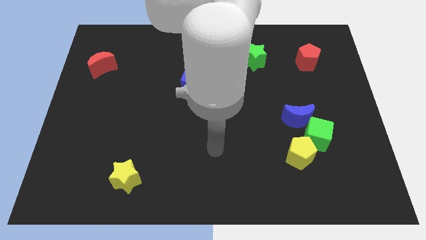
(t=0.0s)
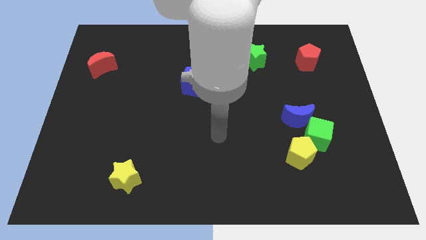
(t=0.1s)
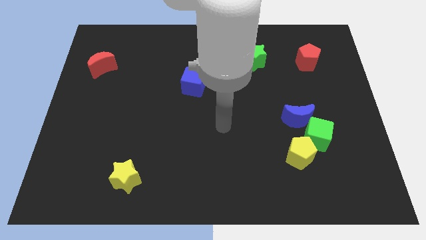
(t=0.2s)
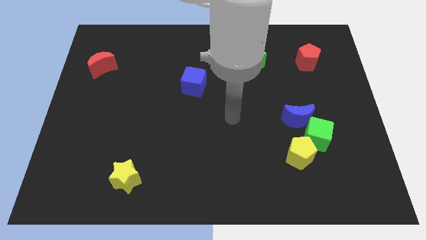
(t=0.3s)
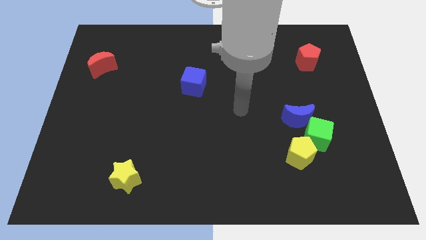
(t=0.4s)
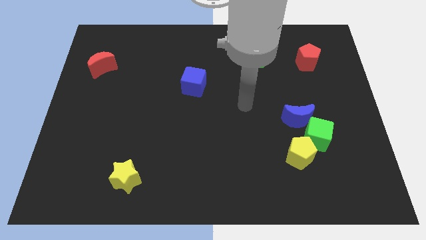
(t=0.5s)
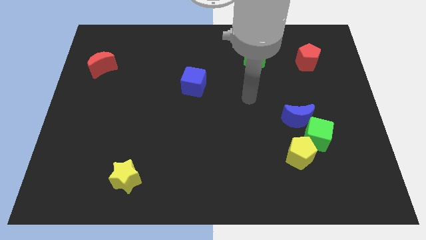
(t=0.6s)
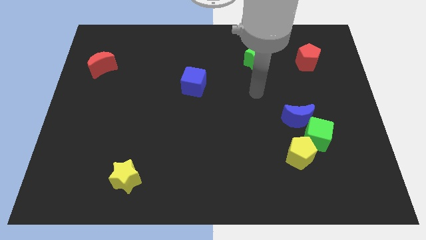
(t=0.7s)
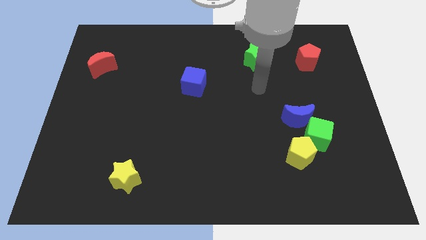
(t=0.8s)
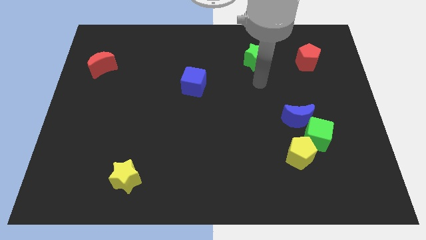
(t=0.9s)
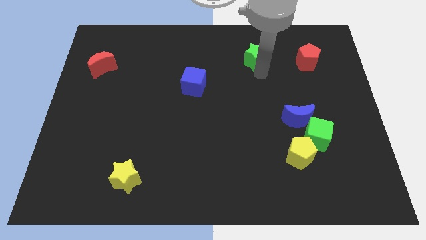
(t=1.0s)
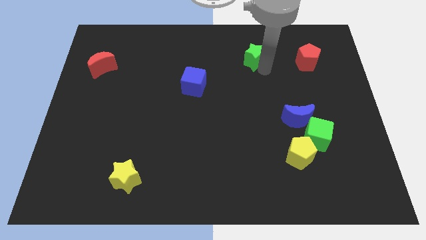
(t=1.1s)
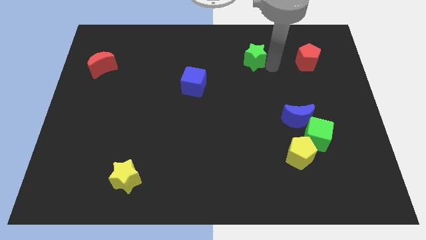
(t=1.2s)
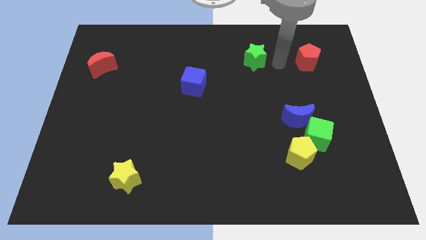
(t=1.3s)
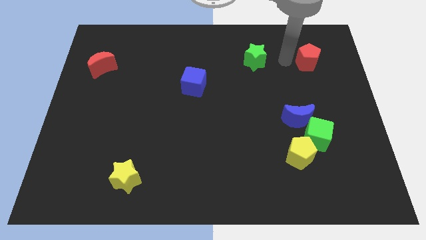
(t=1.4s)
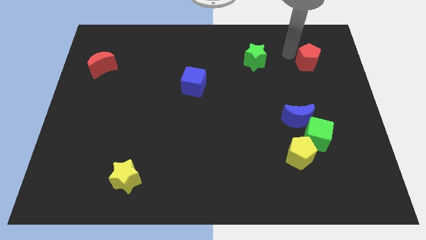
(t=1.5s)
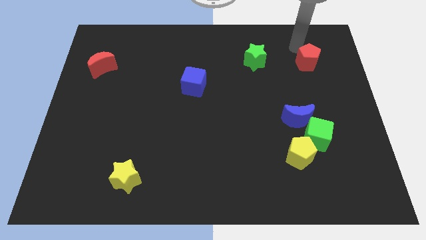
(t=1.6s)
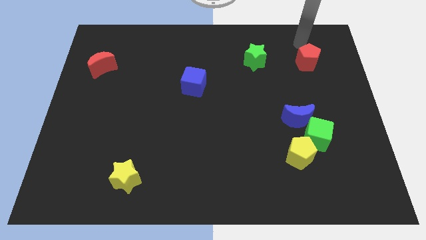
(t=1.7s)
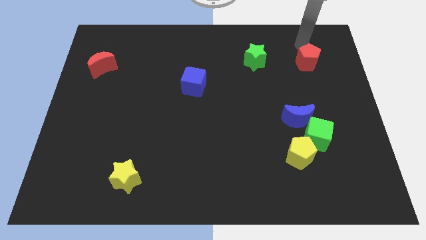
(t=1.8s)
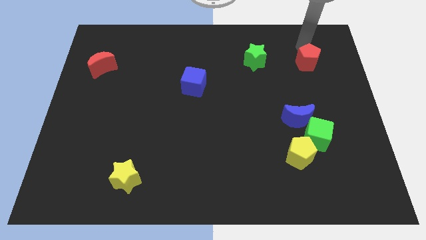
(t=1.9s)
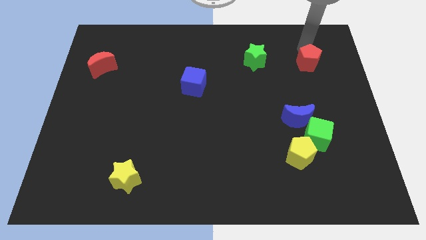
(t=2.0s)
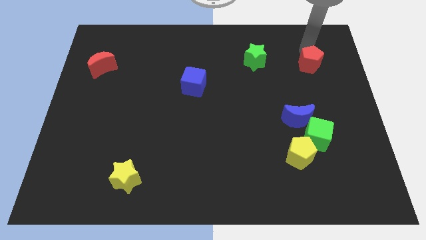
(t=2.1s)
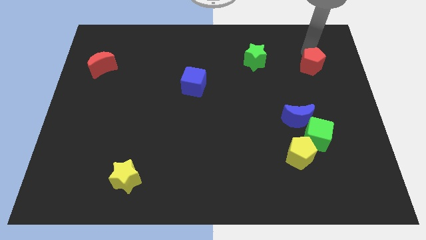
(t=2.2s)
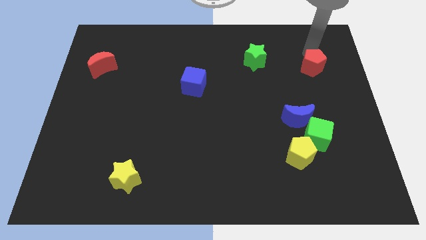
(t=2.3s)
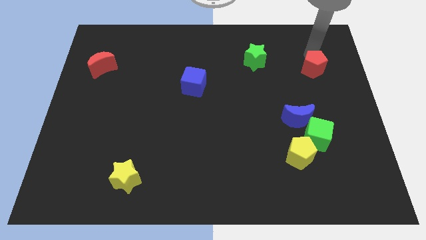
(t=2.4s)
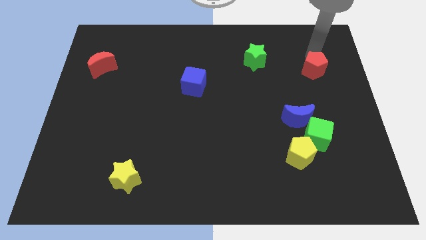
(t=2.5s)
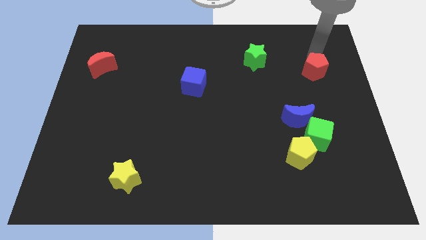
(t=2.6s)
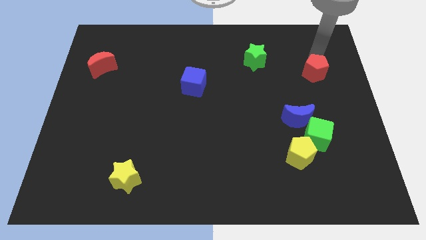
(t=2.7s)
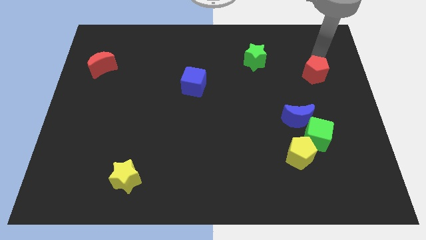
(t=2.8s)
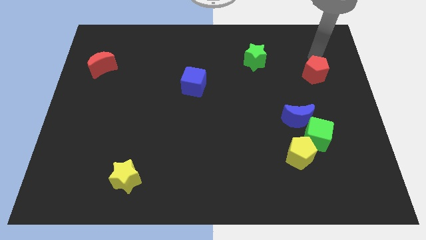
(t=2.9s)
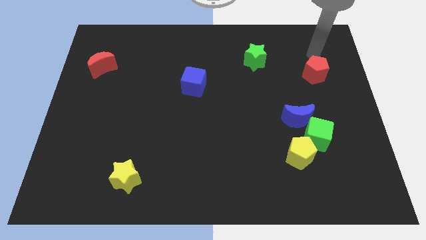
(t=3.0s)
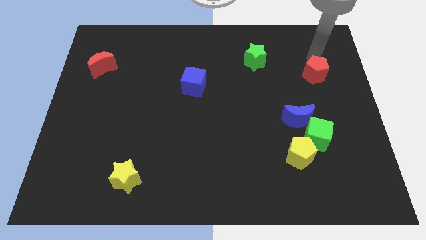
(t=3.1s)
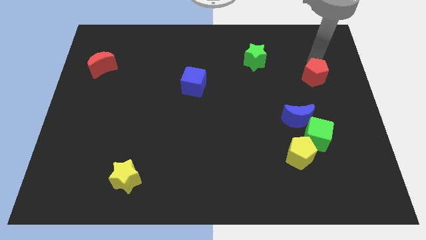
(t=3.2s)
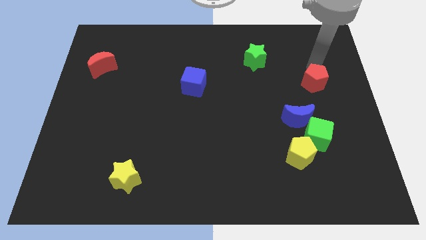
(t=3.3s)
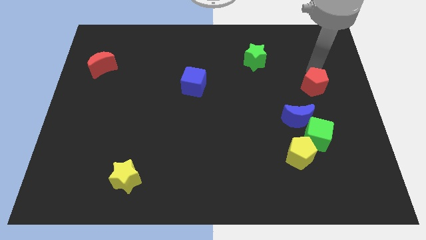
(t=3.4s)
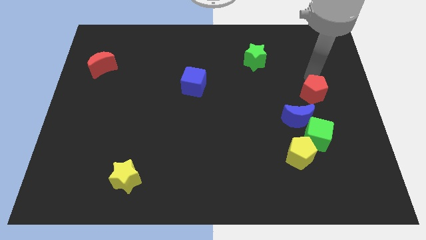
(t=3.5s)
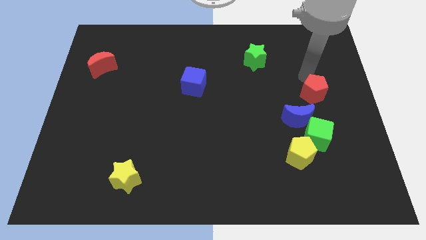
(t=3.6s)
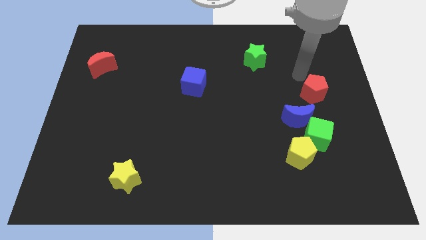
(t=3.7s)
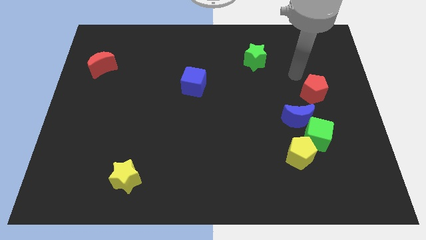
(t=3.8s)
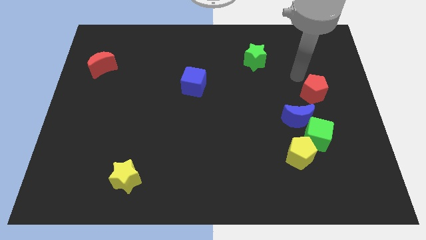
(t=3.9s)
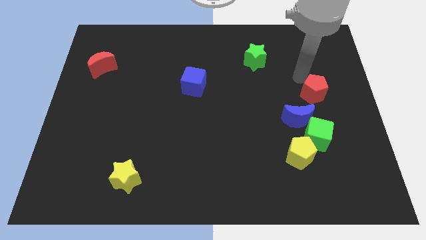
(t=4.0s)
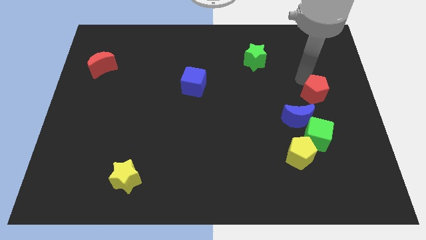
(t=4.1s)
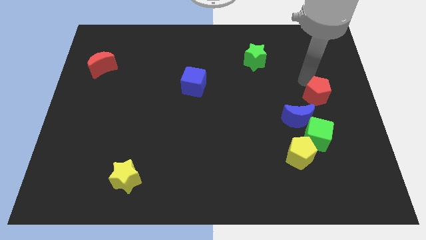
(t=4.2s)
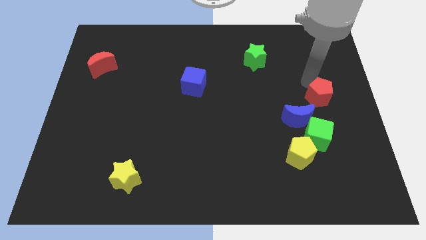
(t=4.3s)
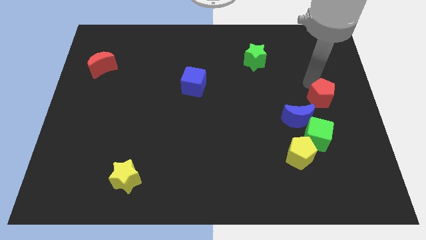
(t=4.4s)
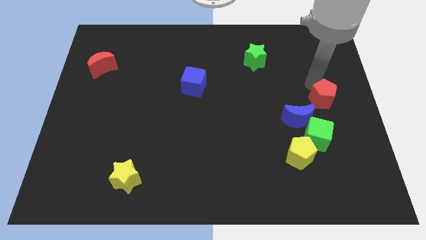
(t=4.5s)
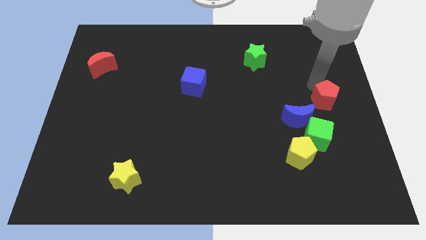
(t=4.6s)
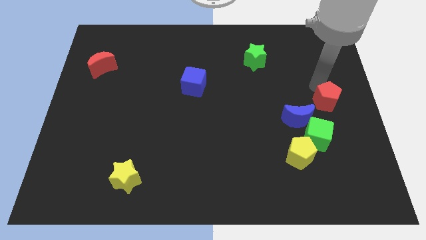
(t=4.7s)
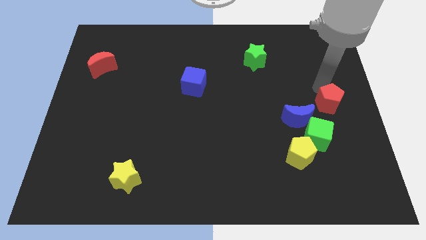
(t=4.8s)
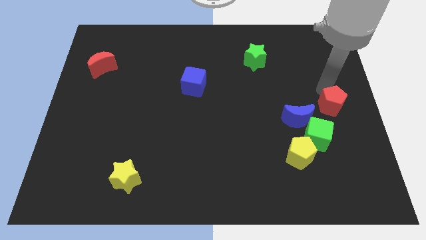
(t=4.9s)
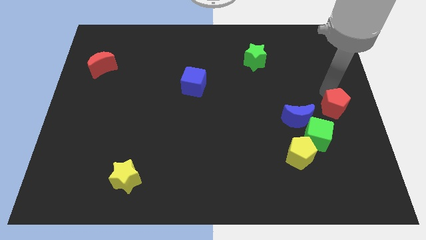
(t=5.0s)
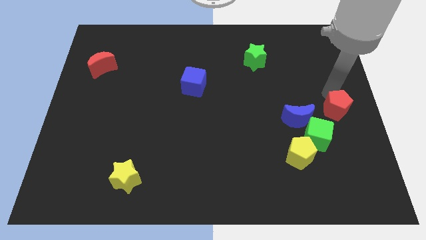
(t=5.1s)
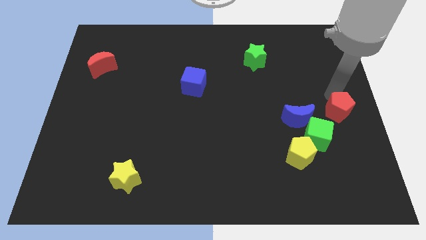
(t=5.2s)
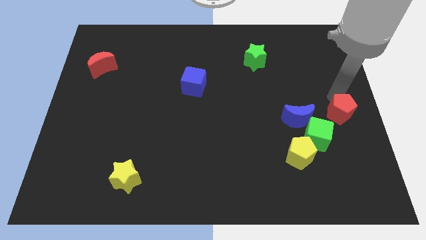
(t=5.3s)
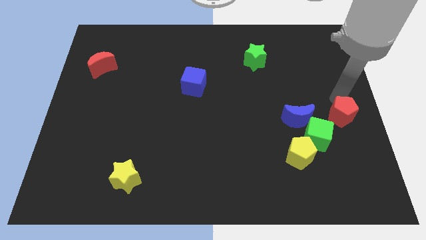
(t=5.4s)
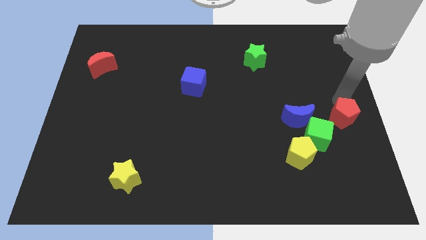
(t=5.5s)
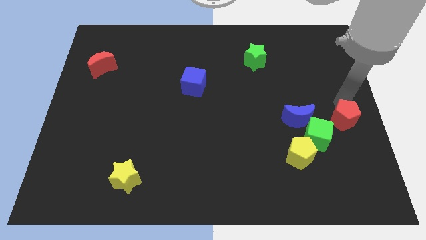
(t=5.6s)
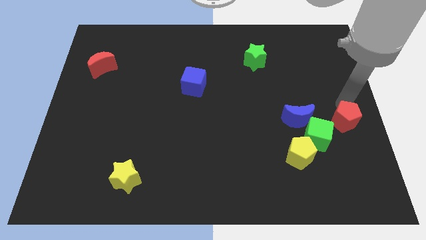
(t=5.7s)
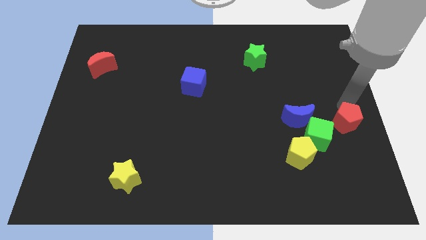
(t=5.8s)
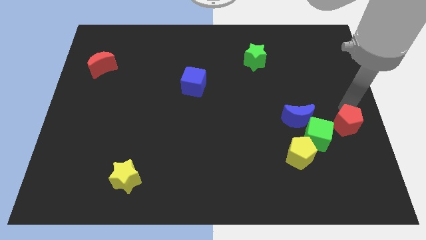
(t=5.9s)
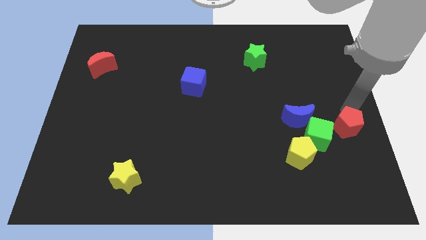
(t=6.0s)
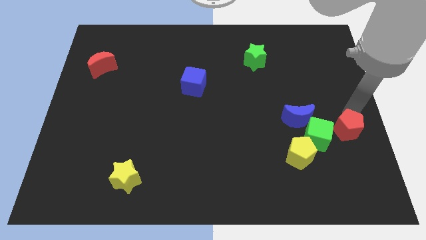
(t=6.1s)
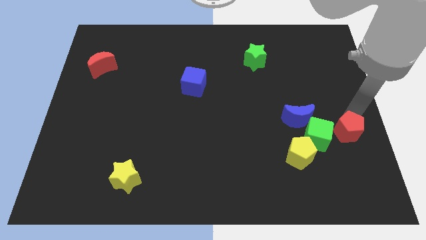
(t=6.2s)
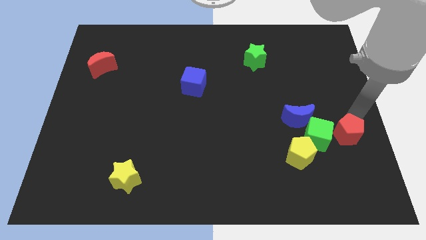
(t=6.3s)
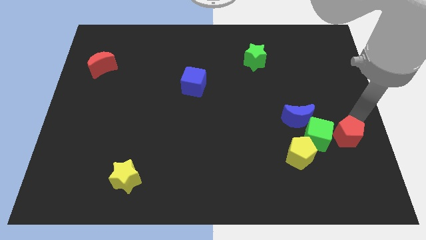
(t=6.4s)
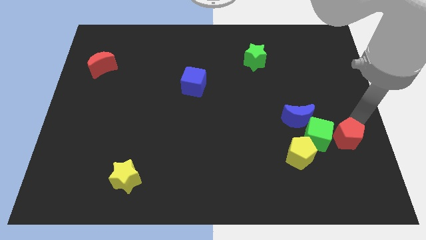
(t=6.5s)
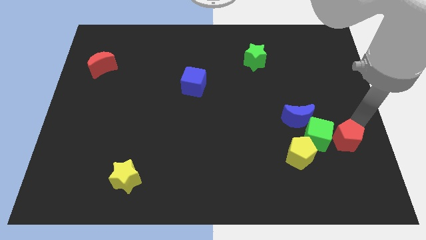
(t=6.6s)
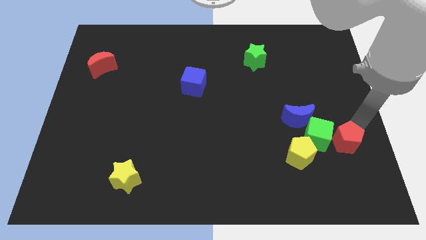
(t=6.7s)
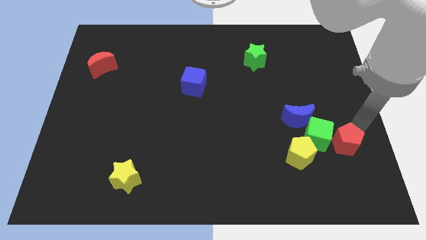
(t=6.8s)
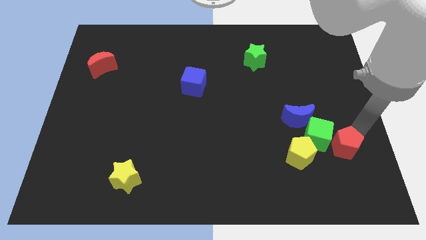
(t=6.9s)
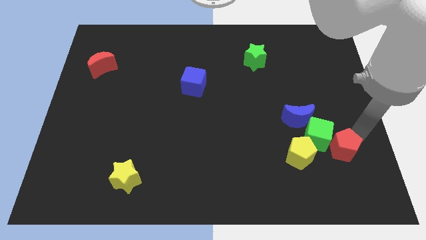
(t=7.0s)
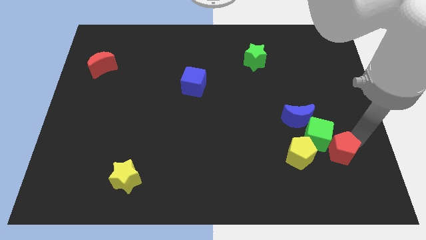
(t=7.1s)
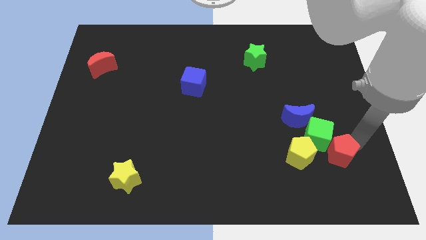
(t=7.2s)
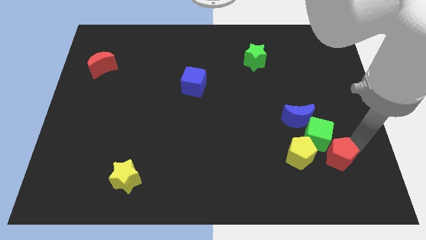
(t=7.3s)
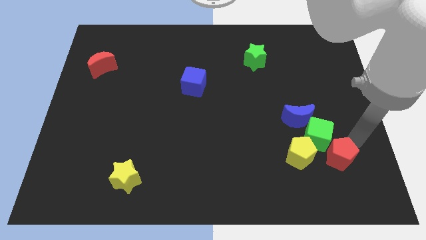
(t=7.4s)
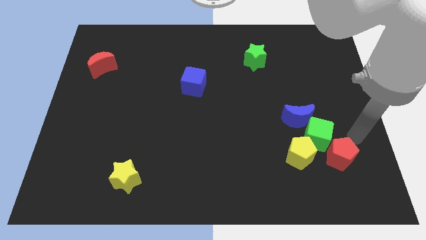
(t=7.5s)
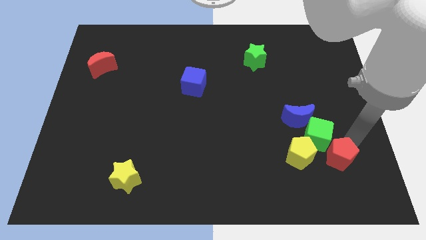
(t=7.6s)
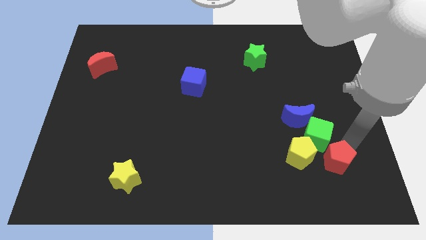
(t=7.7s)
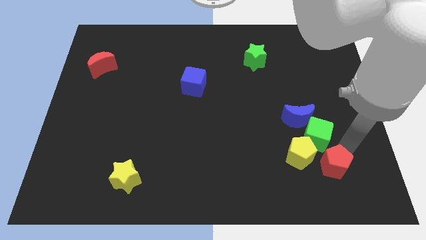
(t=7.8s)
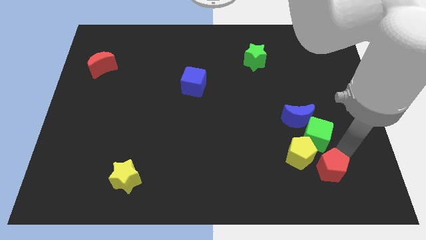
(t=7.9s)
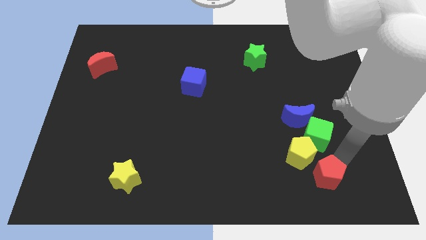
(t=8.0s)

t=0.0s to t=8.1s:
put the red pentagon to the bottom of the blue moon
